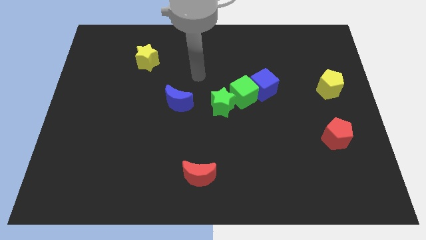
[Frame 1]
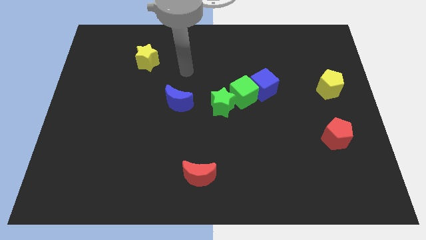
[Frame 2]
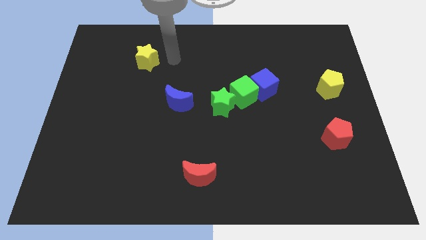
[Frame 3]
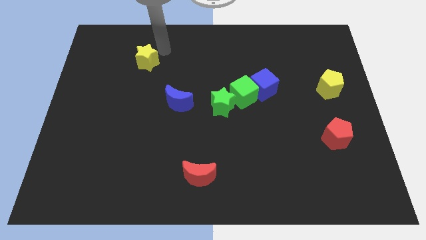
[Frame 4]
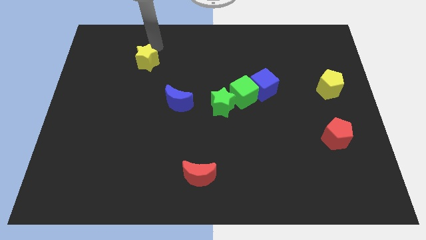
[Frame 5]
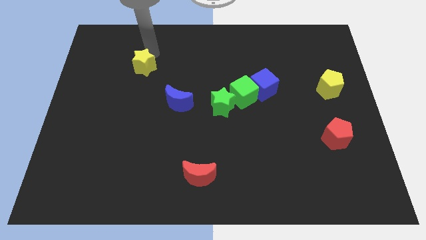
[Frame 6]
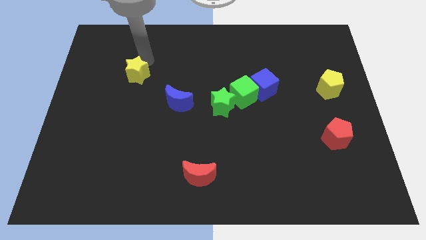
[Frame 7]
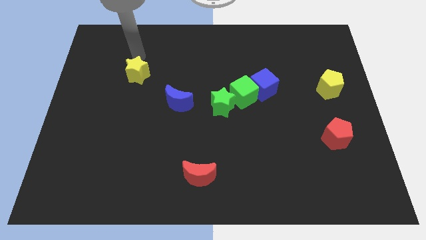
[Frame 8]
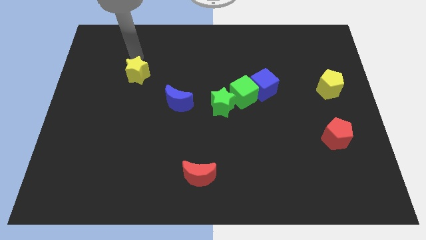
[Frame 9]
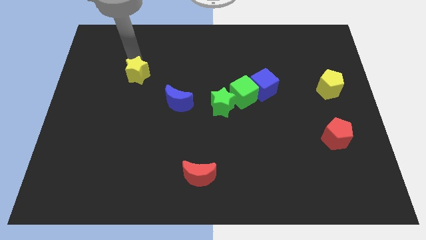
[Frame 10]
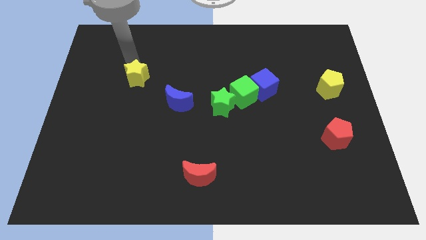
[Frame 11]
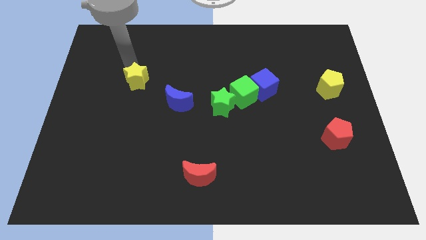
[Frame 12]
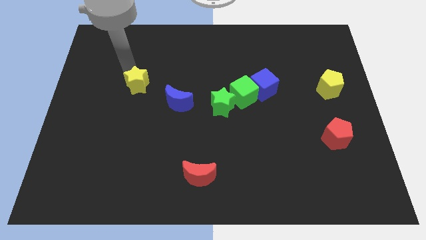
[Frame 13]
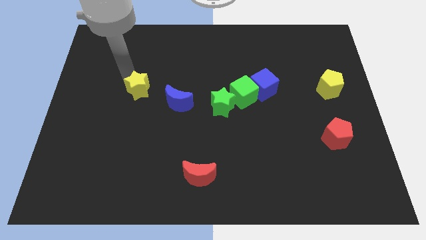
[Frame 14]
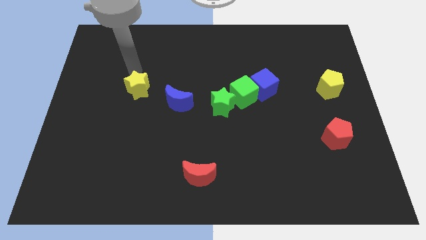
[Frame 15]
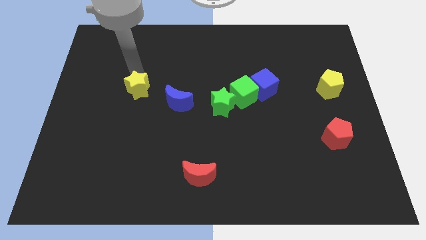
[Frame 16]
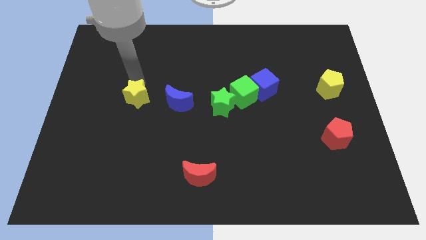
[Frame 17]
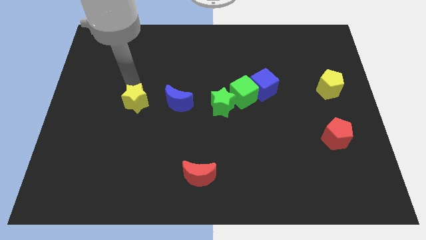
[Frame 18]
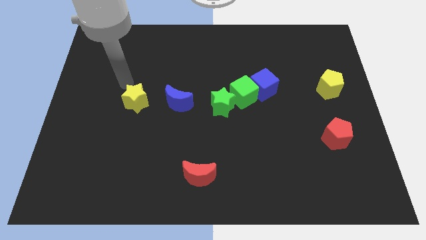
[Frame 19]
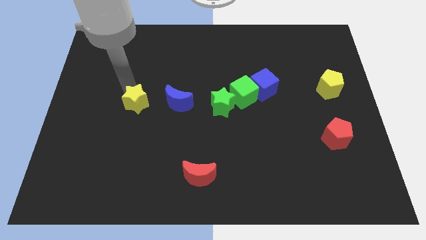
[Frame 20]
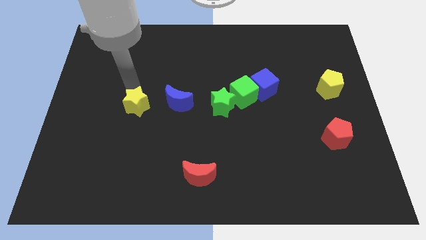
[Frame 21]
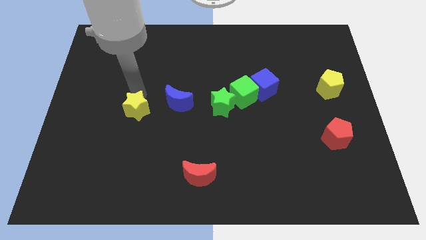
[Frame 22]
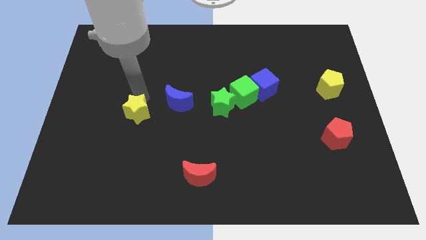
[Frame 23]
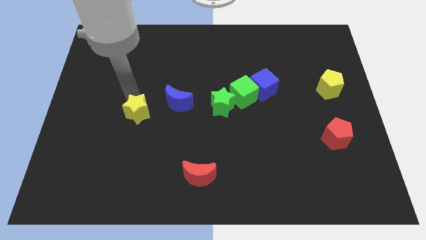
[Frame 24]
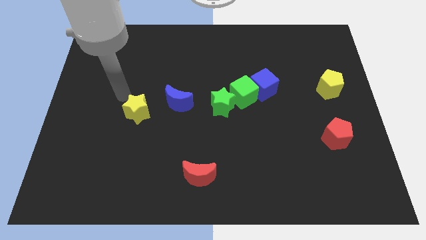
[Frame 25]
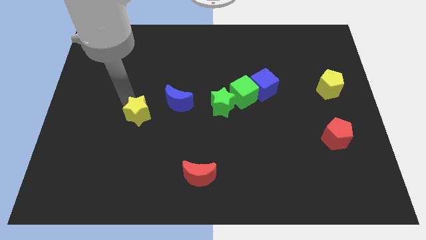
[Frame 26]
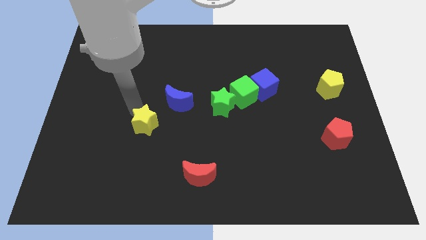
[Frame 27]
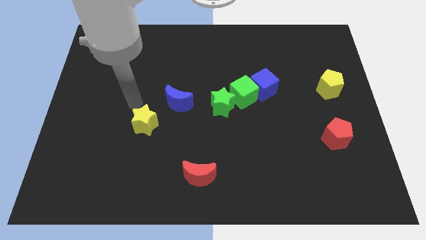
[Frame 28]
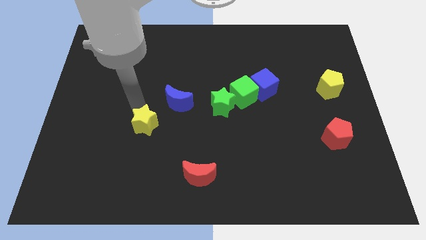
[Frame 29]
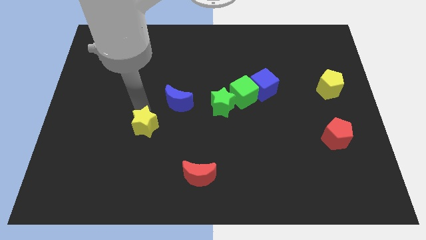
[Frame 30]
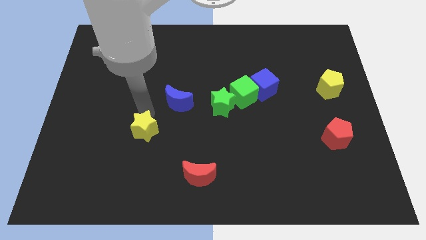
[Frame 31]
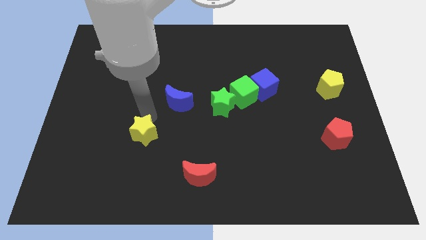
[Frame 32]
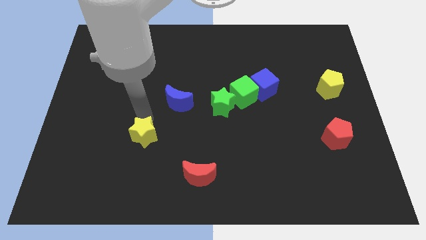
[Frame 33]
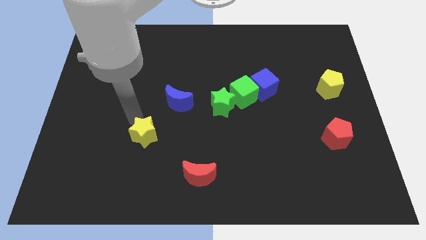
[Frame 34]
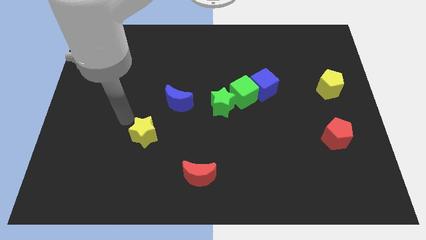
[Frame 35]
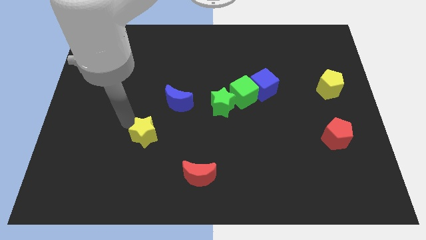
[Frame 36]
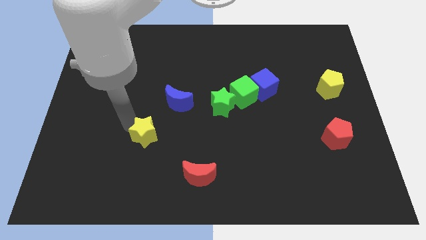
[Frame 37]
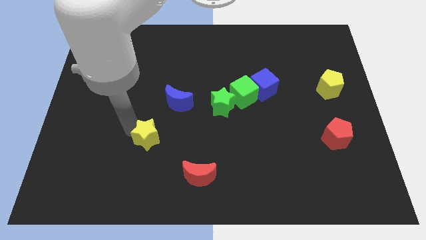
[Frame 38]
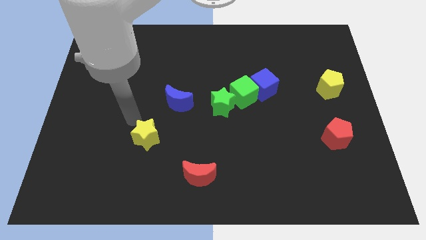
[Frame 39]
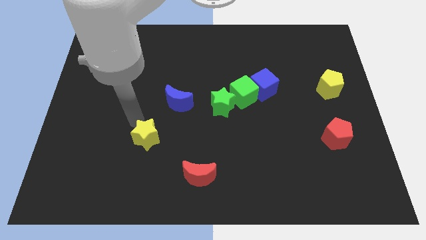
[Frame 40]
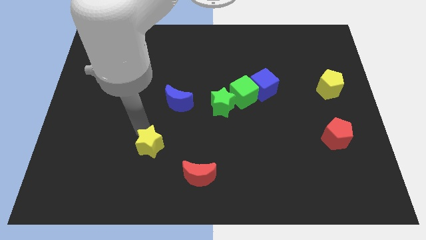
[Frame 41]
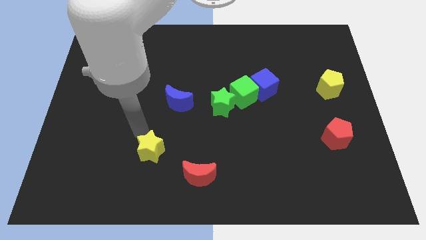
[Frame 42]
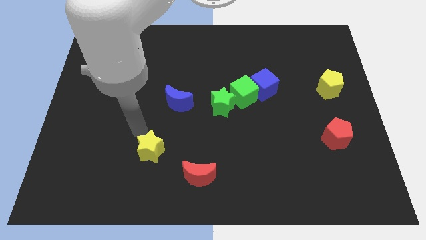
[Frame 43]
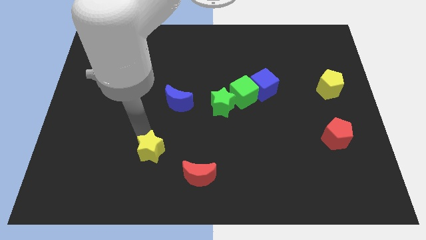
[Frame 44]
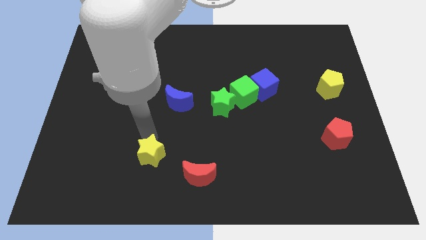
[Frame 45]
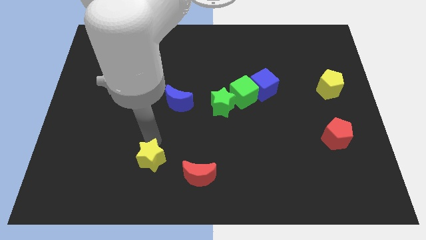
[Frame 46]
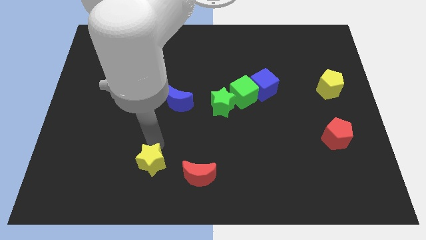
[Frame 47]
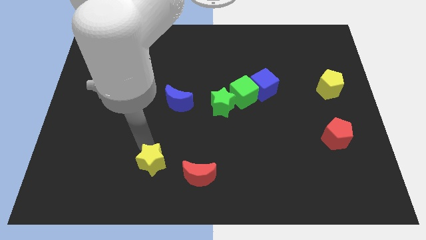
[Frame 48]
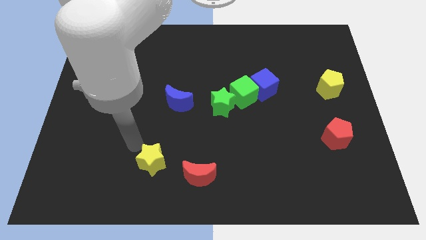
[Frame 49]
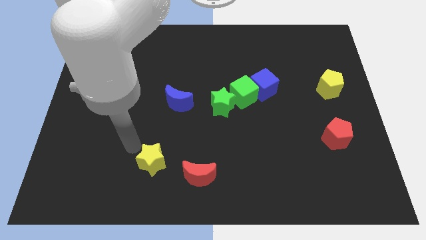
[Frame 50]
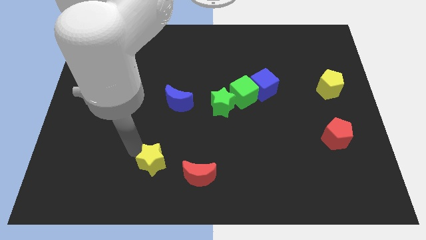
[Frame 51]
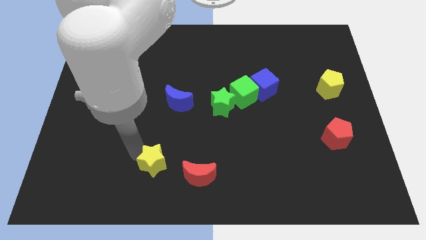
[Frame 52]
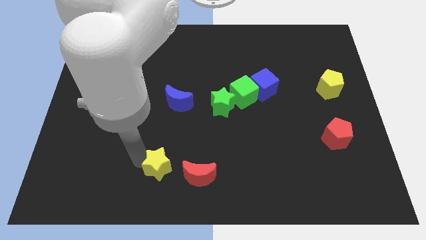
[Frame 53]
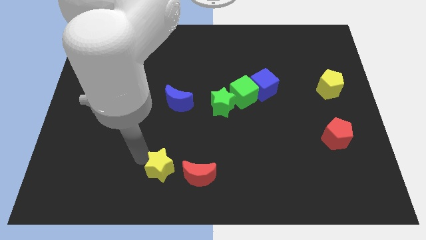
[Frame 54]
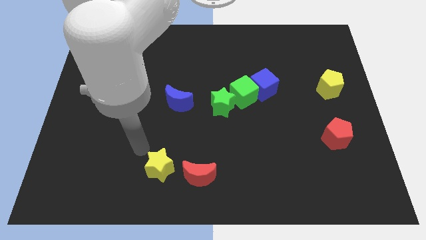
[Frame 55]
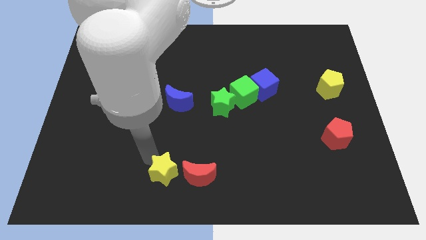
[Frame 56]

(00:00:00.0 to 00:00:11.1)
push the yellow star to the bottom side
